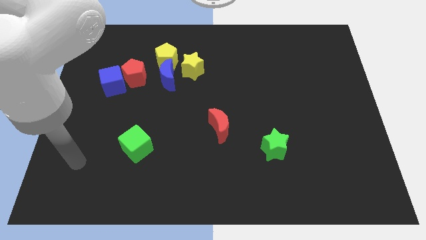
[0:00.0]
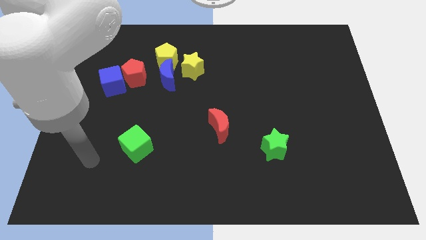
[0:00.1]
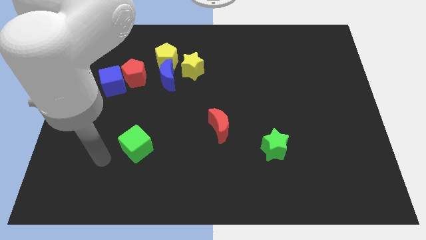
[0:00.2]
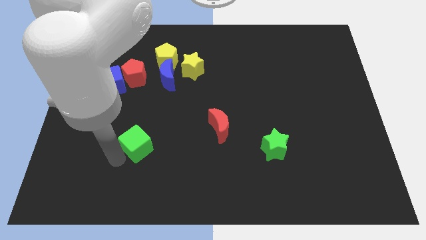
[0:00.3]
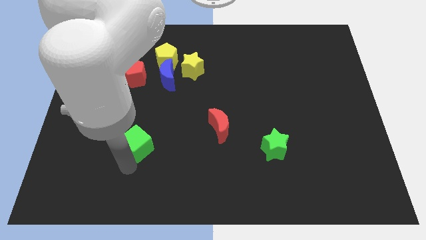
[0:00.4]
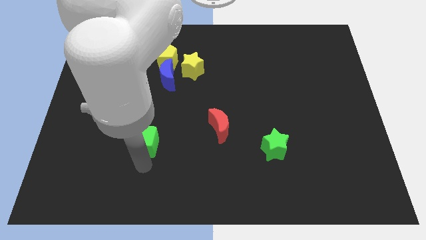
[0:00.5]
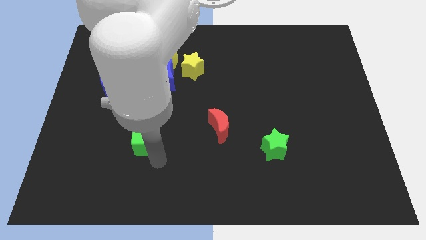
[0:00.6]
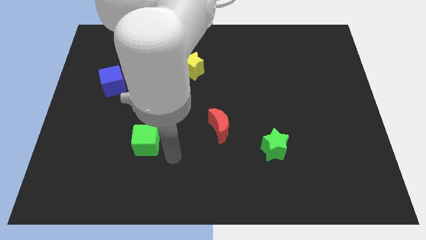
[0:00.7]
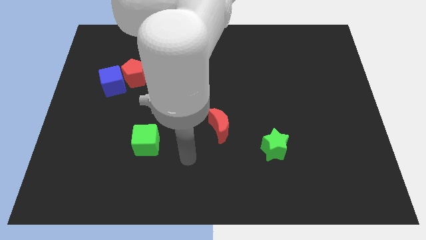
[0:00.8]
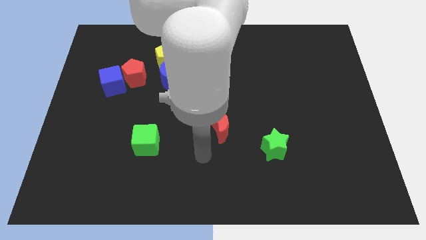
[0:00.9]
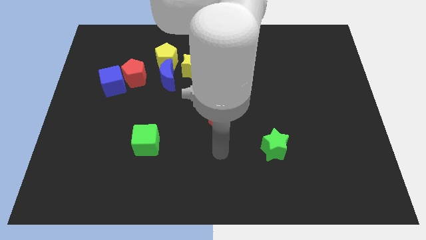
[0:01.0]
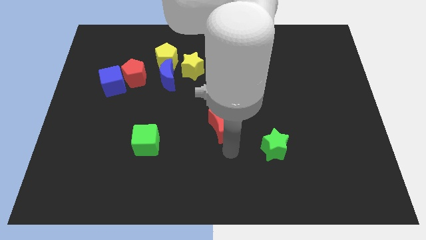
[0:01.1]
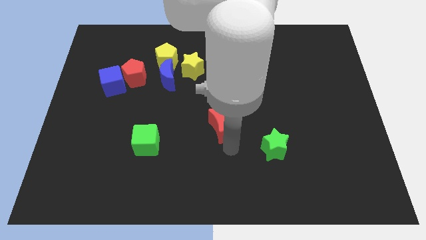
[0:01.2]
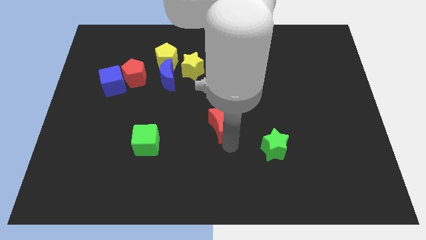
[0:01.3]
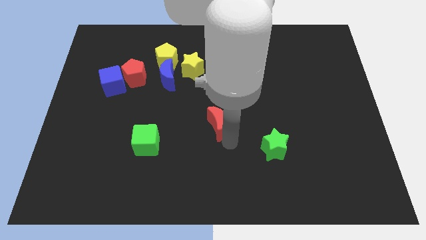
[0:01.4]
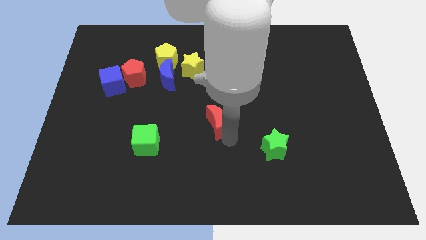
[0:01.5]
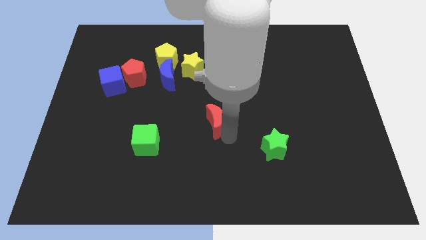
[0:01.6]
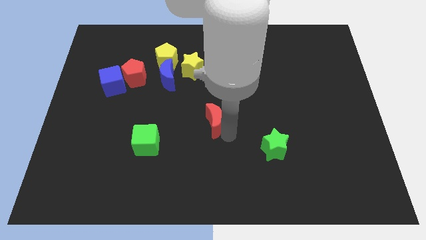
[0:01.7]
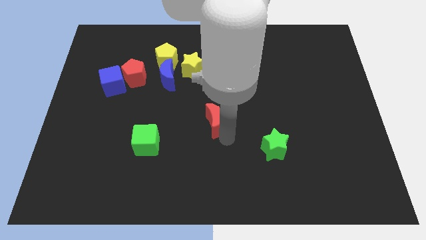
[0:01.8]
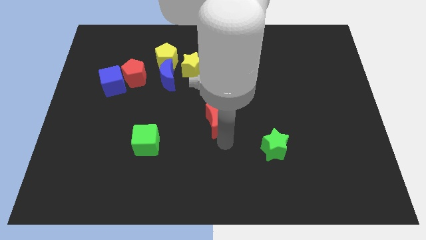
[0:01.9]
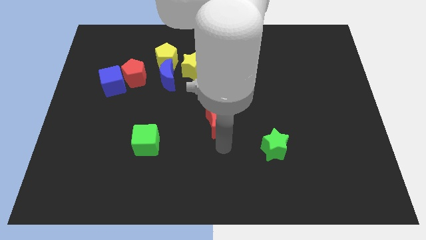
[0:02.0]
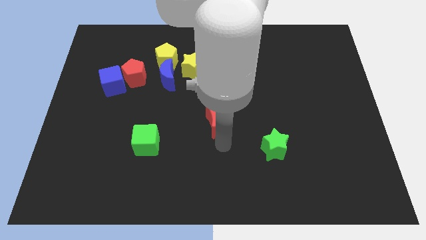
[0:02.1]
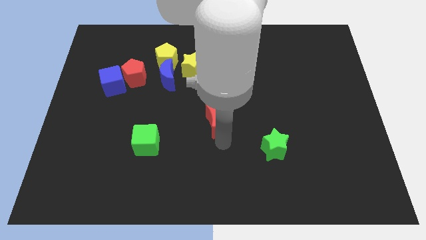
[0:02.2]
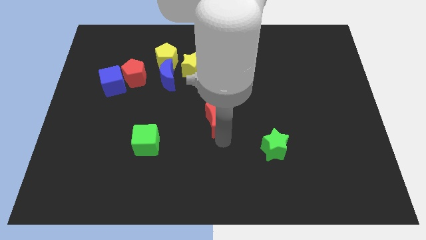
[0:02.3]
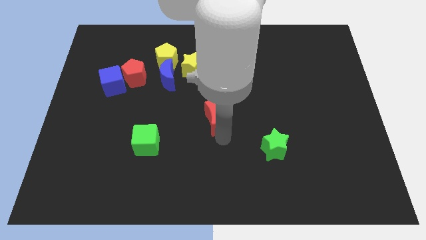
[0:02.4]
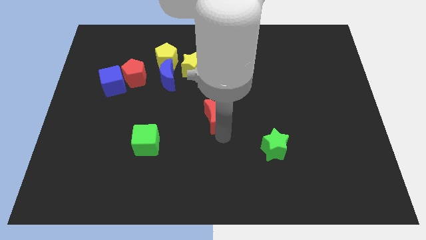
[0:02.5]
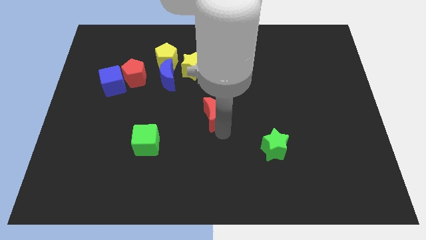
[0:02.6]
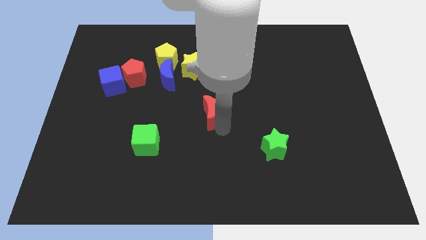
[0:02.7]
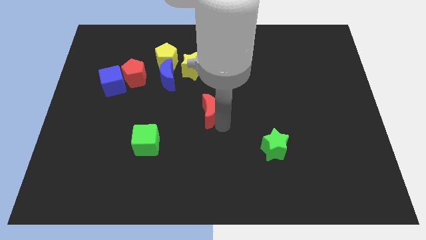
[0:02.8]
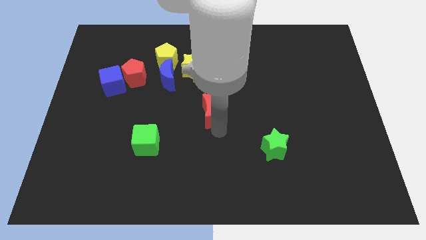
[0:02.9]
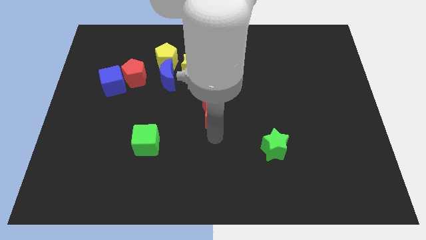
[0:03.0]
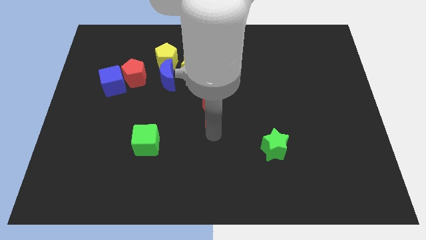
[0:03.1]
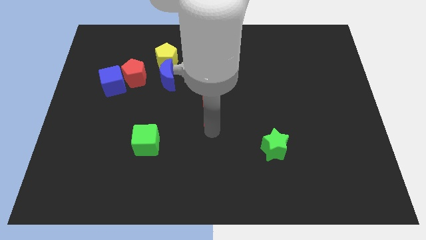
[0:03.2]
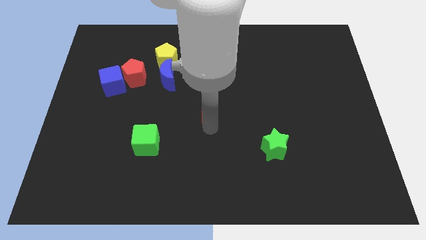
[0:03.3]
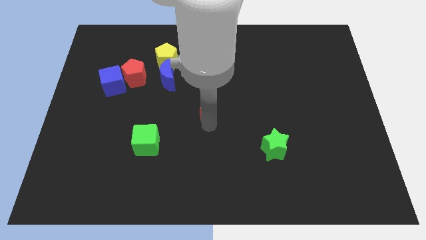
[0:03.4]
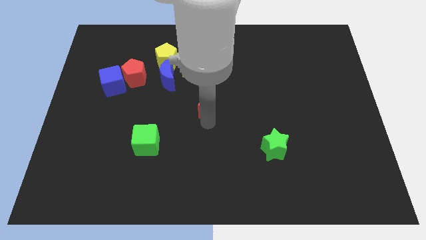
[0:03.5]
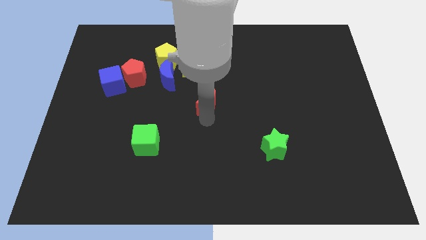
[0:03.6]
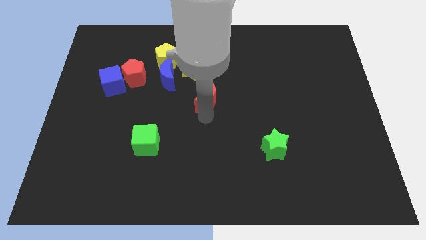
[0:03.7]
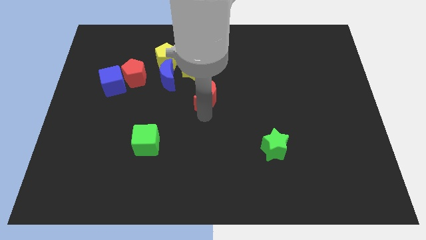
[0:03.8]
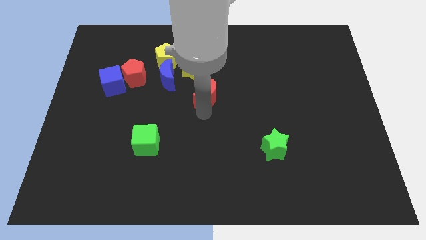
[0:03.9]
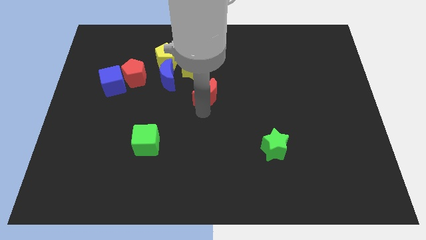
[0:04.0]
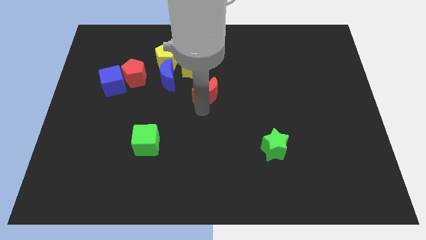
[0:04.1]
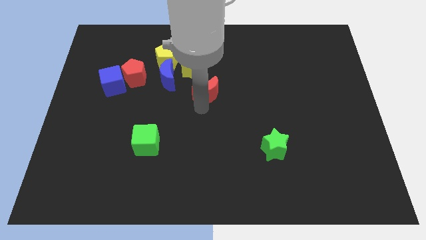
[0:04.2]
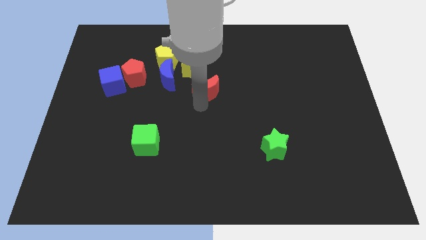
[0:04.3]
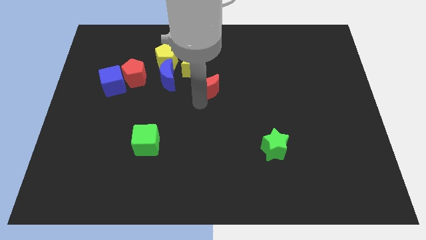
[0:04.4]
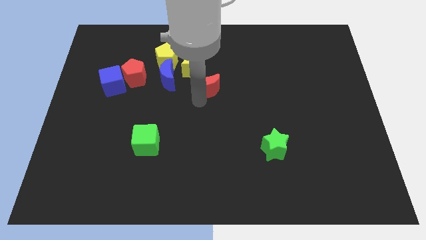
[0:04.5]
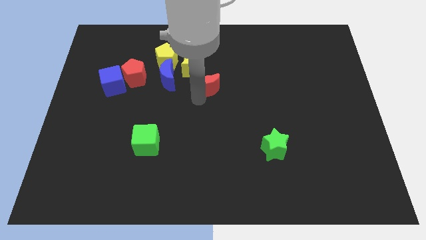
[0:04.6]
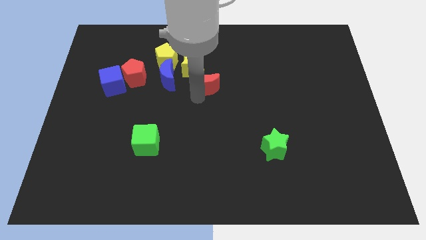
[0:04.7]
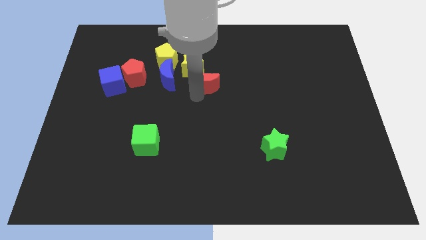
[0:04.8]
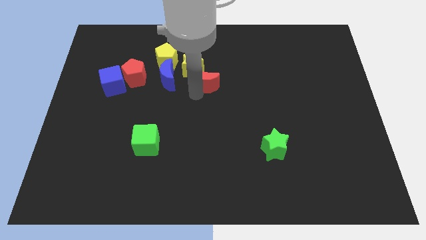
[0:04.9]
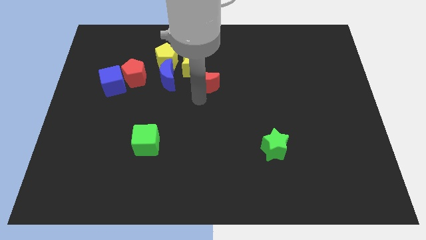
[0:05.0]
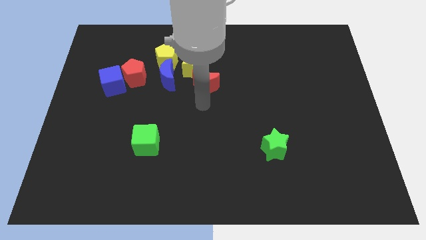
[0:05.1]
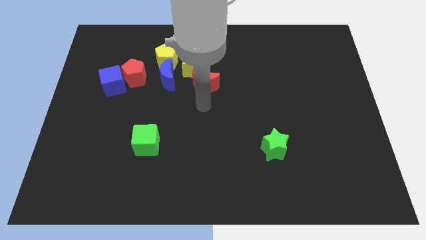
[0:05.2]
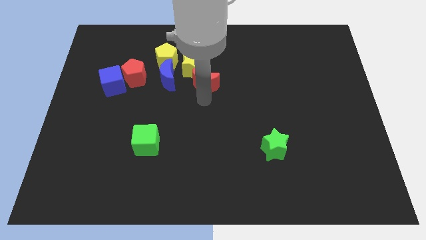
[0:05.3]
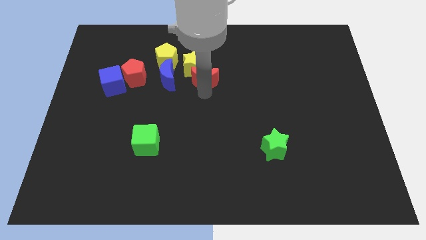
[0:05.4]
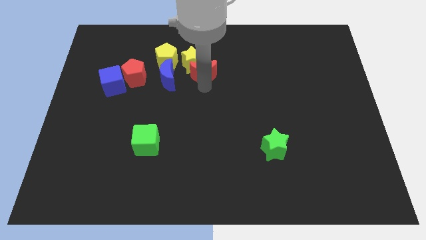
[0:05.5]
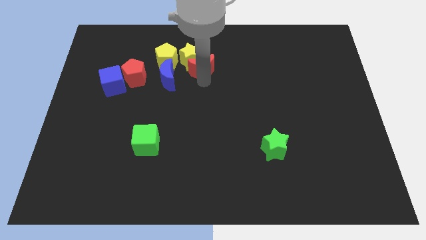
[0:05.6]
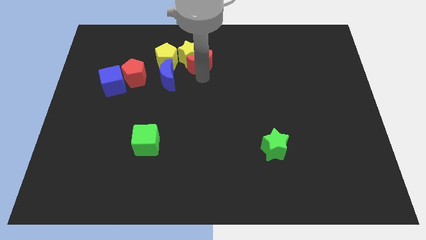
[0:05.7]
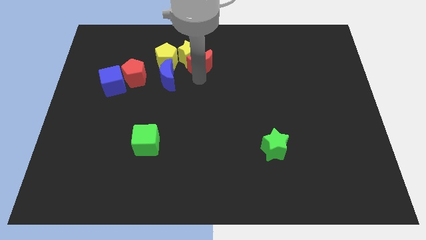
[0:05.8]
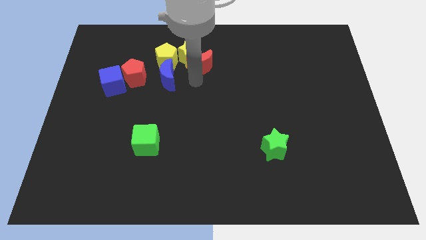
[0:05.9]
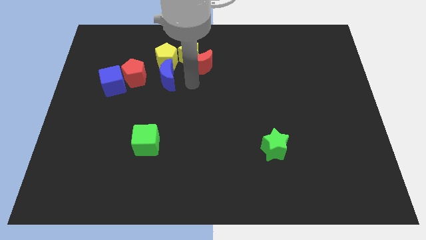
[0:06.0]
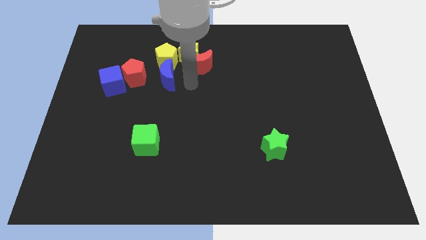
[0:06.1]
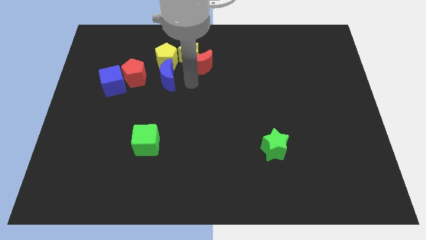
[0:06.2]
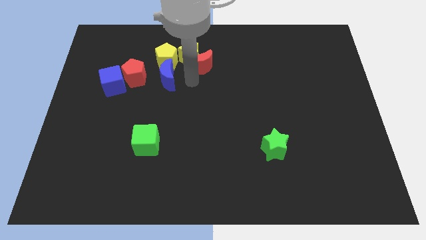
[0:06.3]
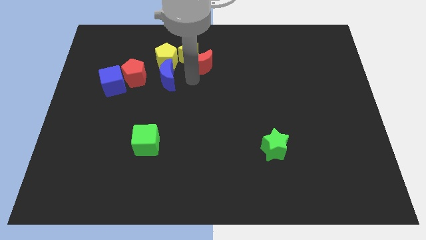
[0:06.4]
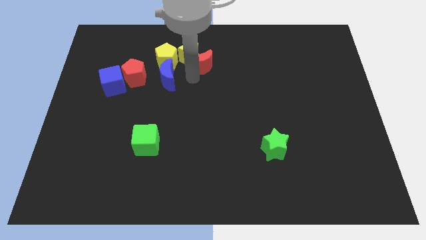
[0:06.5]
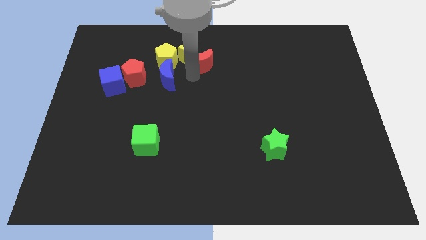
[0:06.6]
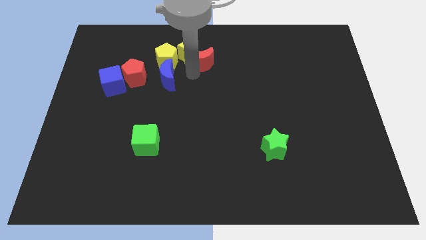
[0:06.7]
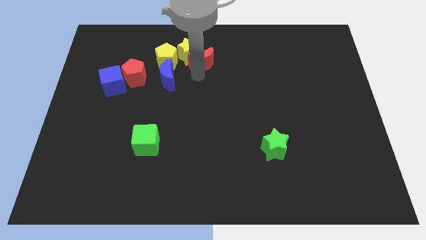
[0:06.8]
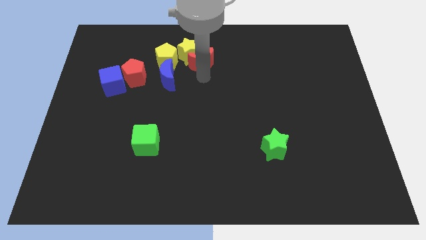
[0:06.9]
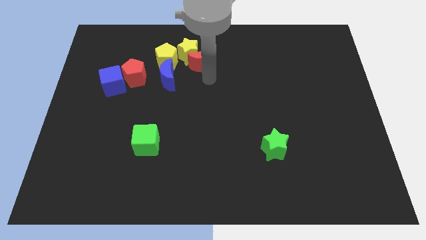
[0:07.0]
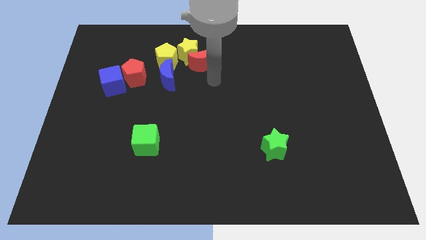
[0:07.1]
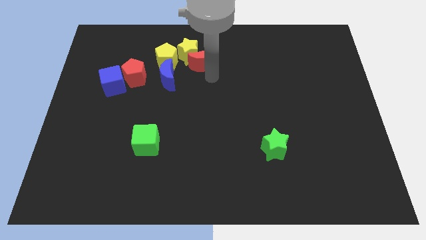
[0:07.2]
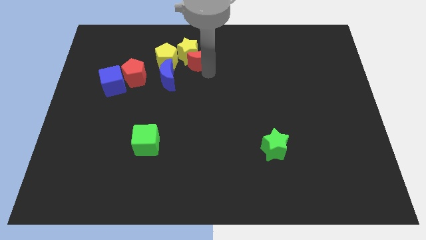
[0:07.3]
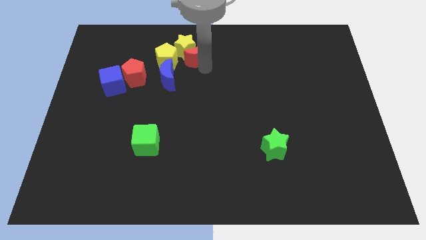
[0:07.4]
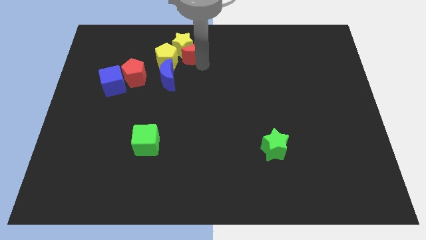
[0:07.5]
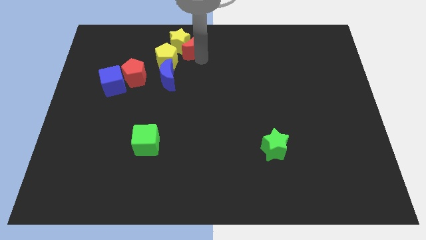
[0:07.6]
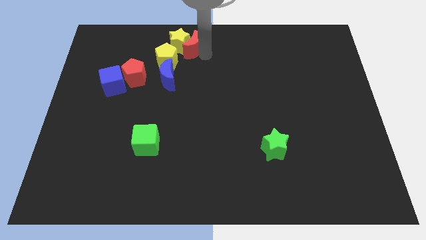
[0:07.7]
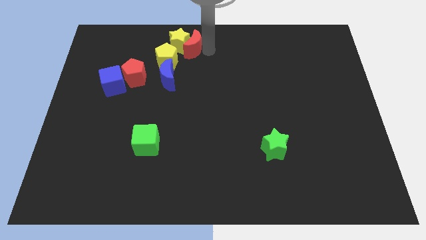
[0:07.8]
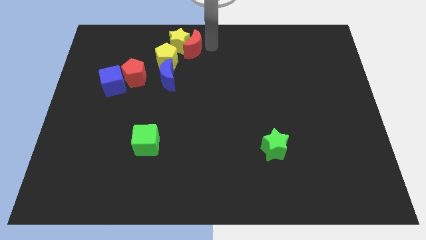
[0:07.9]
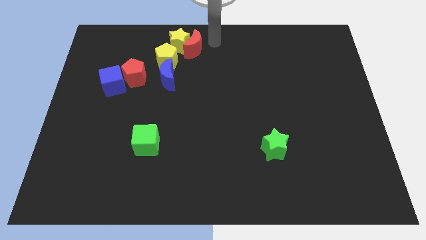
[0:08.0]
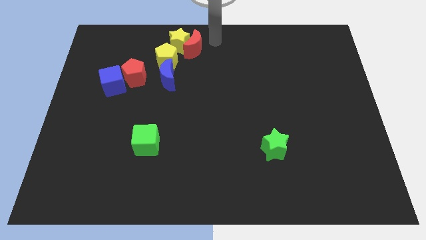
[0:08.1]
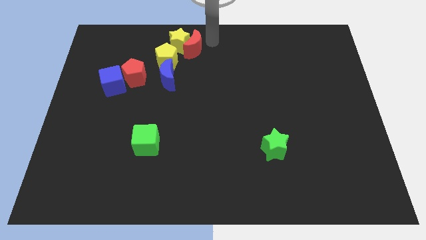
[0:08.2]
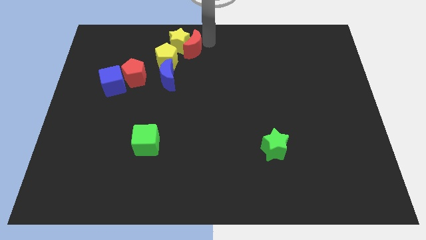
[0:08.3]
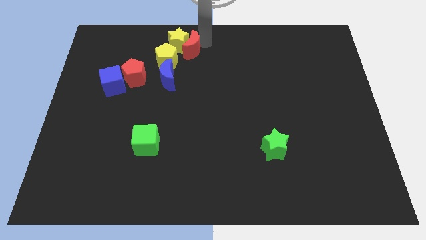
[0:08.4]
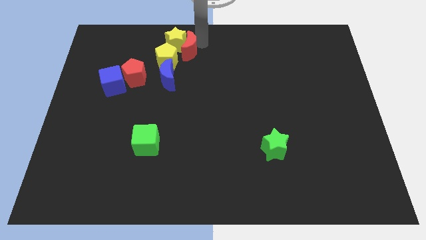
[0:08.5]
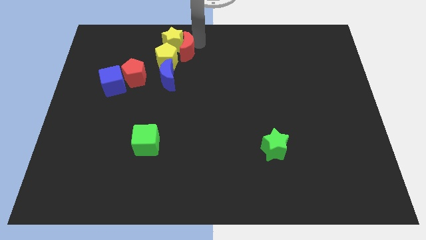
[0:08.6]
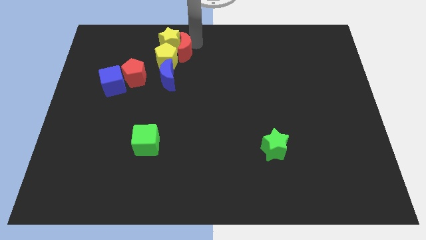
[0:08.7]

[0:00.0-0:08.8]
slide the red moon close to the yellow pentagon
